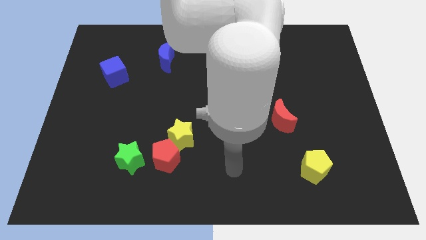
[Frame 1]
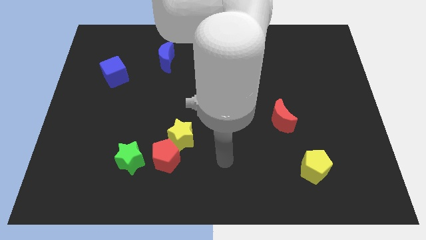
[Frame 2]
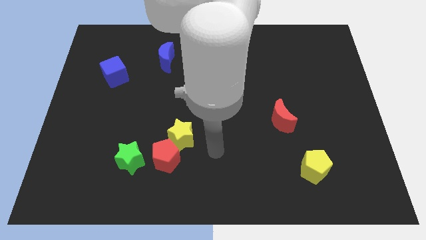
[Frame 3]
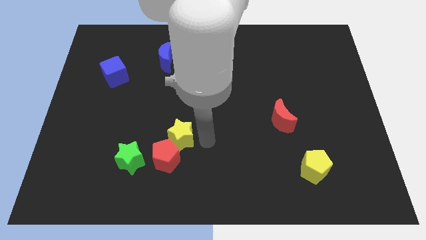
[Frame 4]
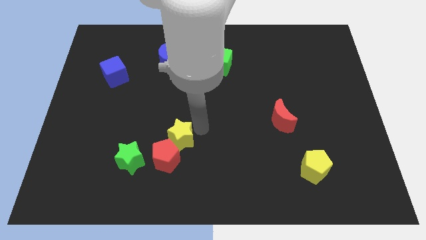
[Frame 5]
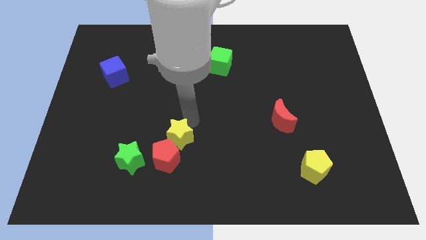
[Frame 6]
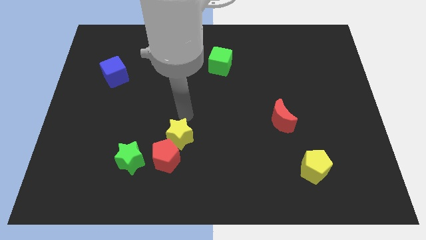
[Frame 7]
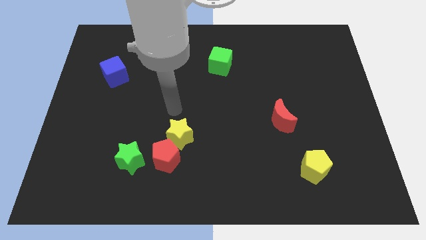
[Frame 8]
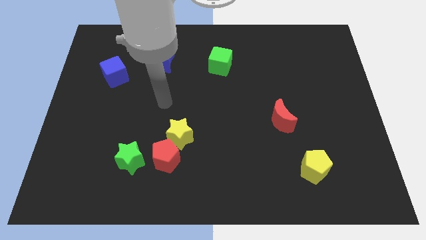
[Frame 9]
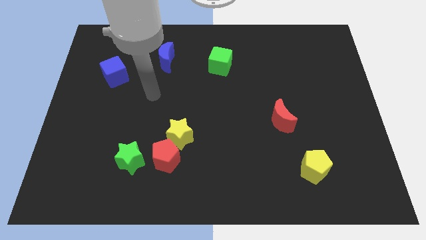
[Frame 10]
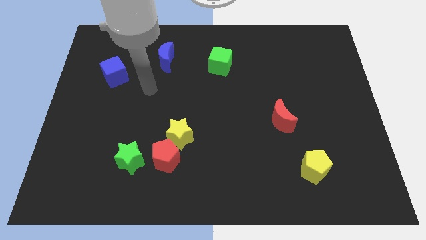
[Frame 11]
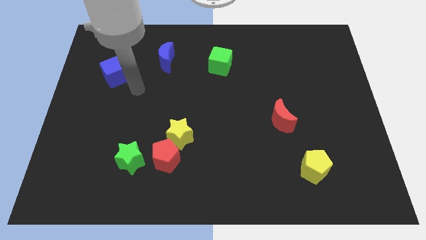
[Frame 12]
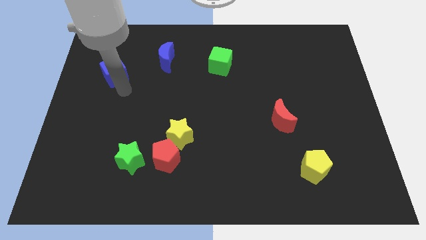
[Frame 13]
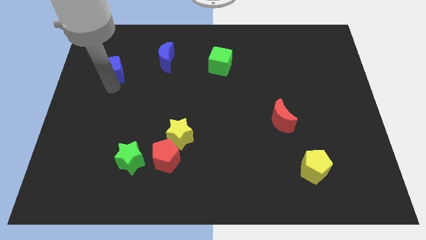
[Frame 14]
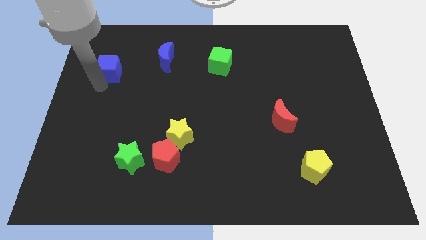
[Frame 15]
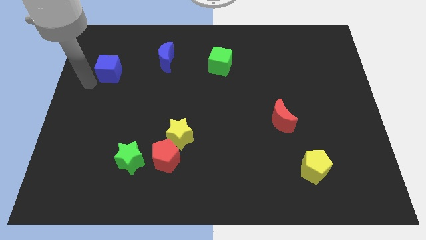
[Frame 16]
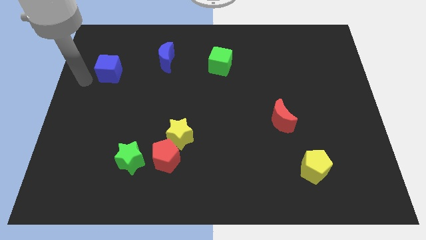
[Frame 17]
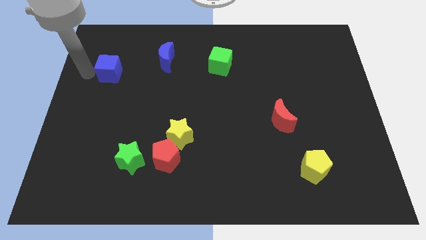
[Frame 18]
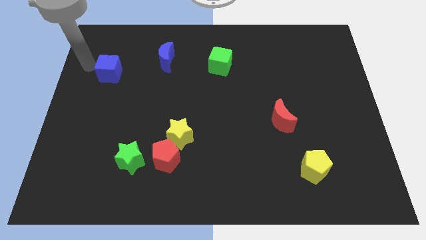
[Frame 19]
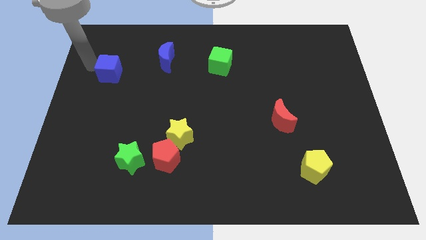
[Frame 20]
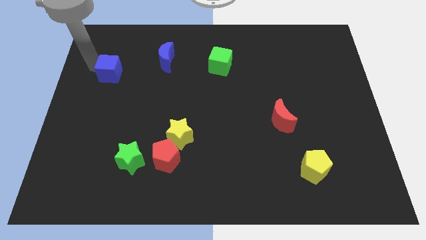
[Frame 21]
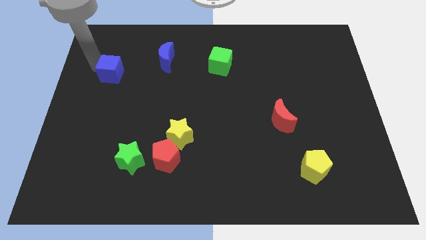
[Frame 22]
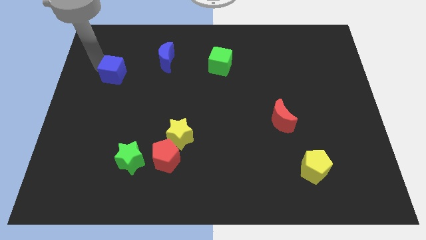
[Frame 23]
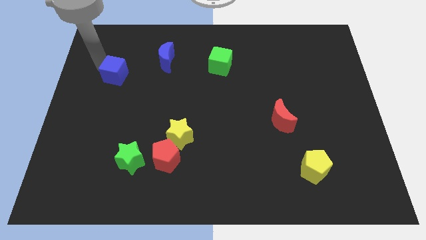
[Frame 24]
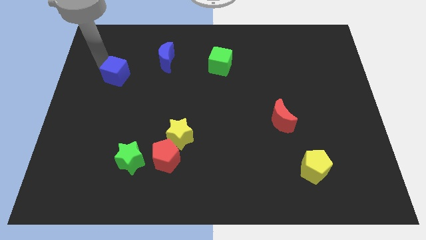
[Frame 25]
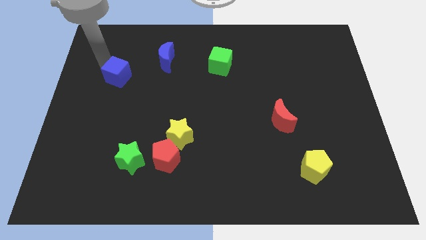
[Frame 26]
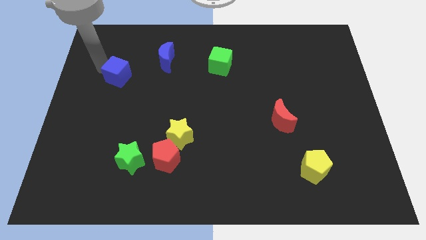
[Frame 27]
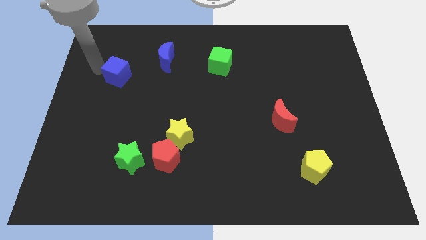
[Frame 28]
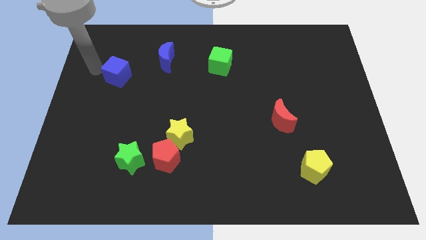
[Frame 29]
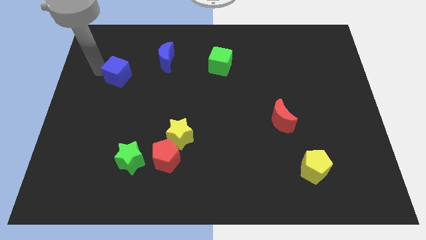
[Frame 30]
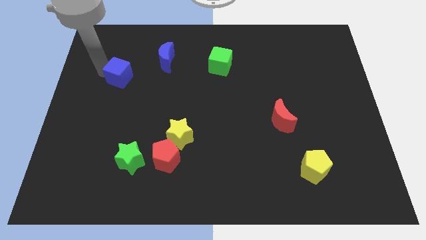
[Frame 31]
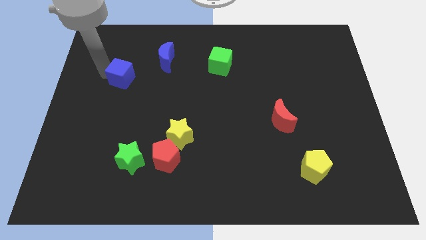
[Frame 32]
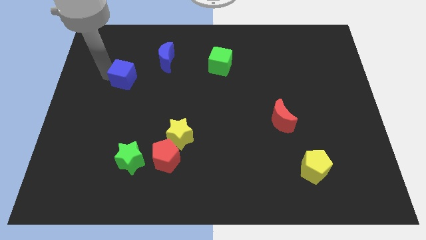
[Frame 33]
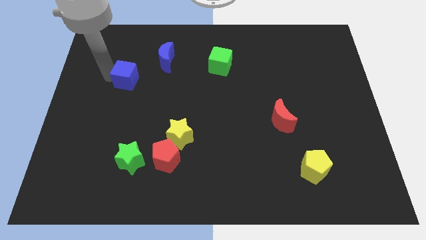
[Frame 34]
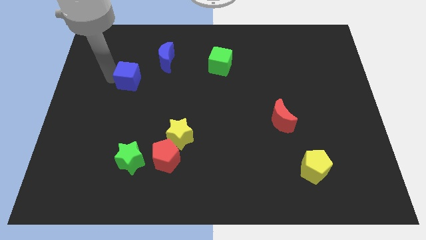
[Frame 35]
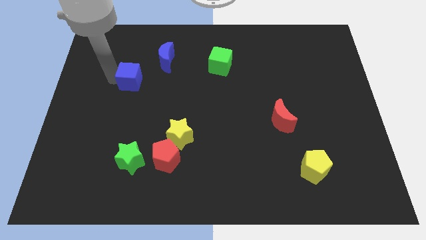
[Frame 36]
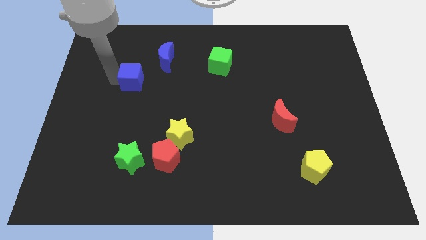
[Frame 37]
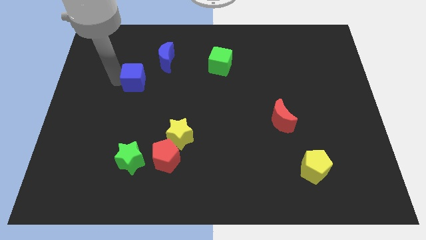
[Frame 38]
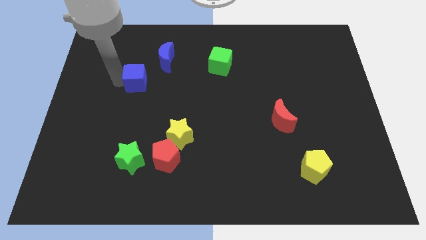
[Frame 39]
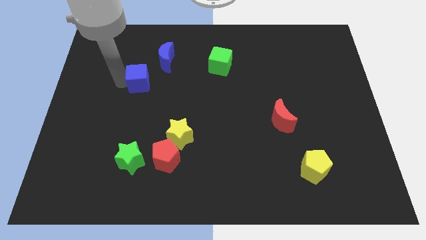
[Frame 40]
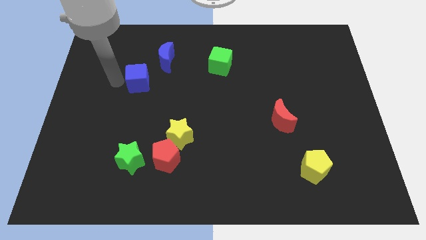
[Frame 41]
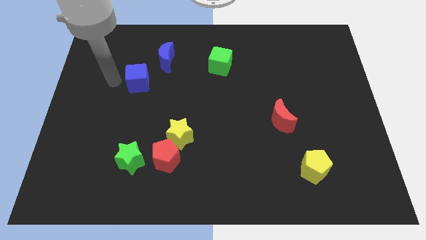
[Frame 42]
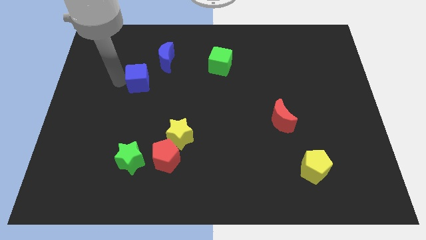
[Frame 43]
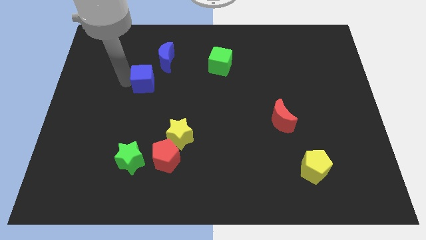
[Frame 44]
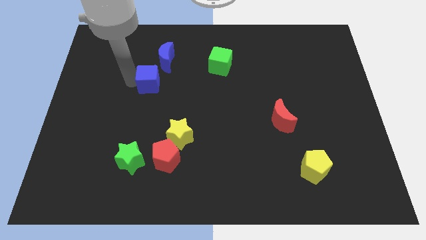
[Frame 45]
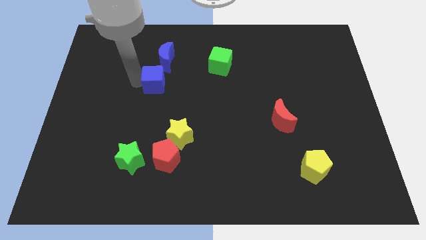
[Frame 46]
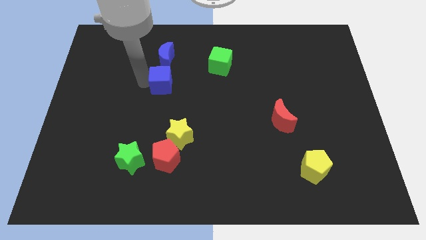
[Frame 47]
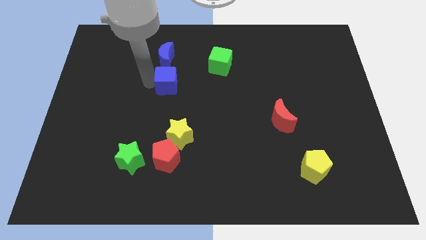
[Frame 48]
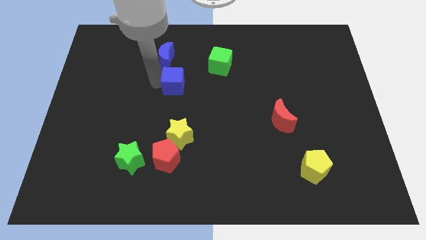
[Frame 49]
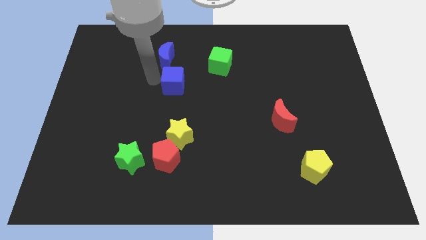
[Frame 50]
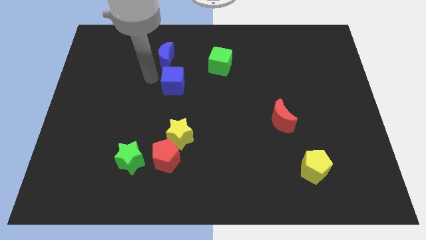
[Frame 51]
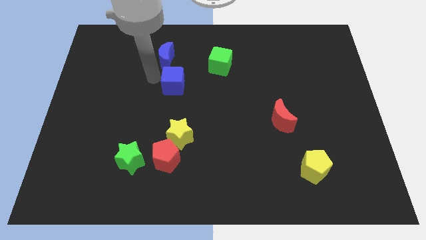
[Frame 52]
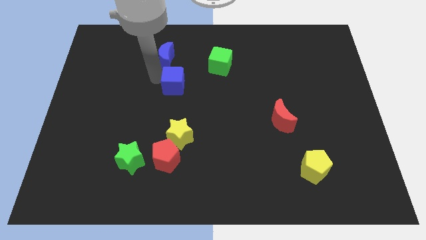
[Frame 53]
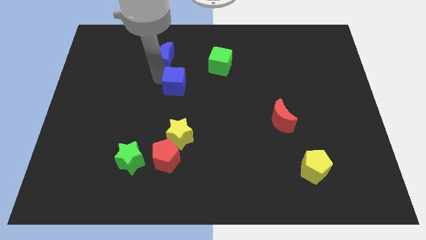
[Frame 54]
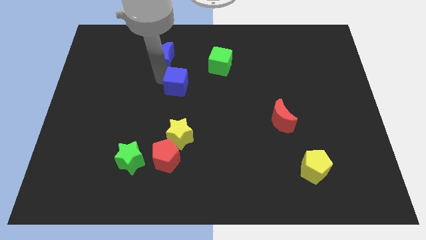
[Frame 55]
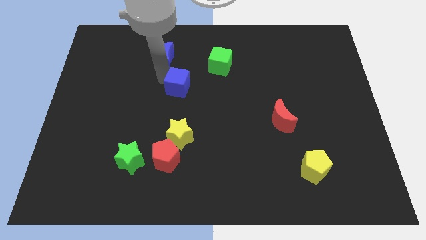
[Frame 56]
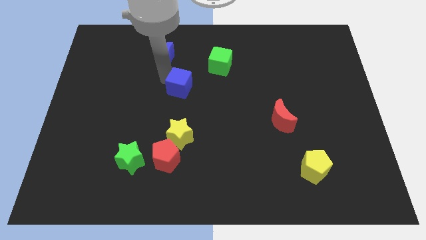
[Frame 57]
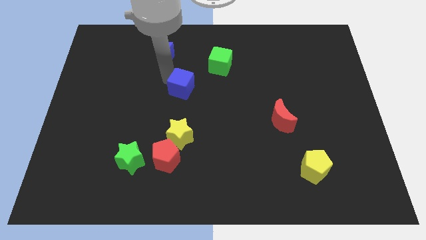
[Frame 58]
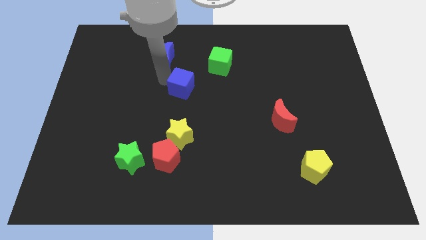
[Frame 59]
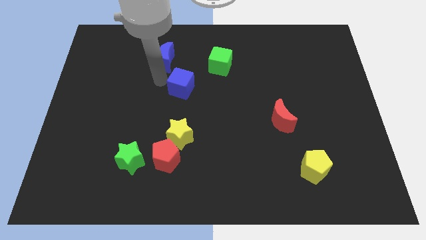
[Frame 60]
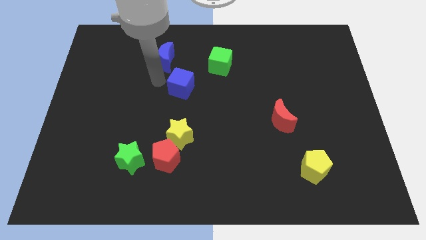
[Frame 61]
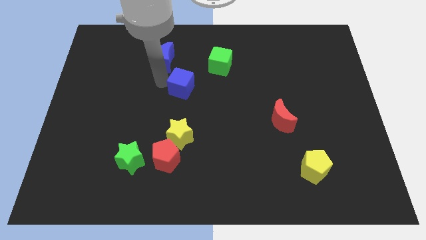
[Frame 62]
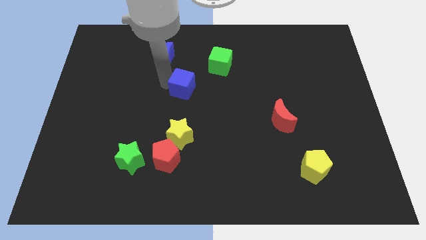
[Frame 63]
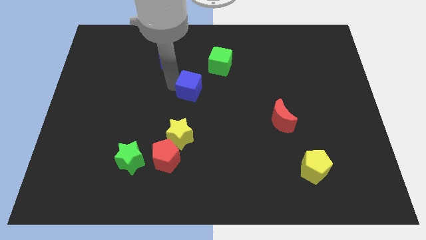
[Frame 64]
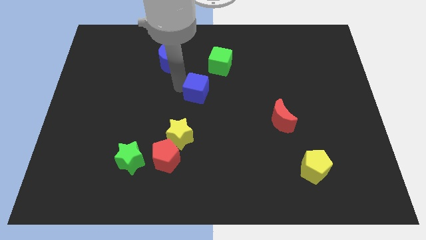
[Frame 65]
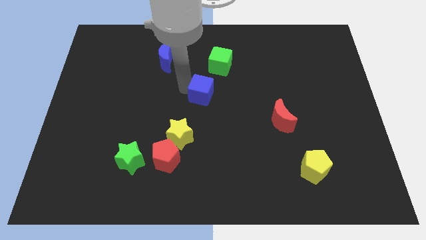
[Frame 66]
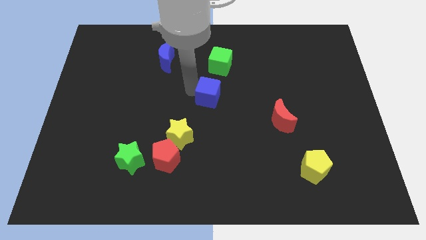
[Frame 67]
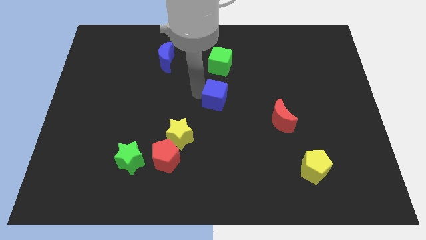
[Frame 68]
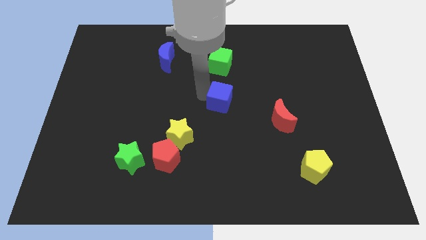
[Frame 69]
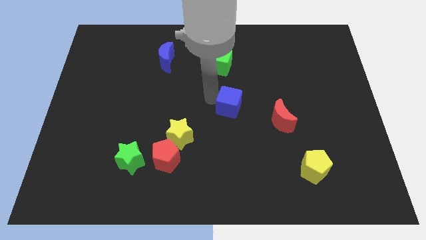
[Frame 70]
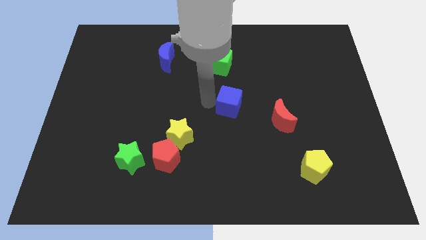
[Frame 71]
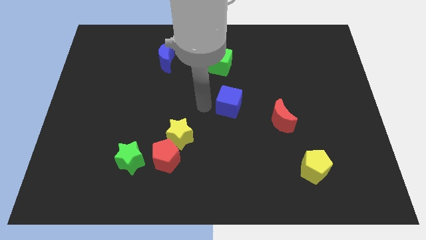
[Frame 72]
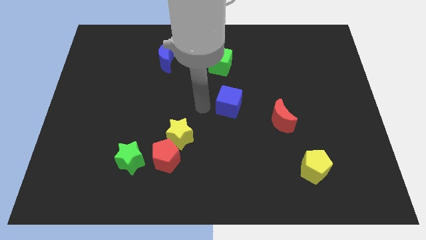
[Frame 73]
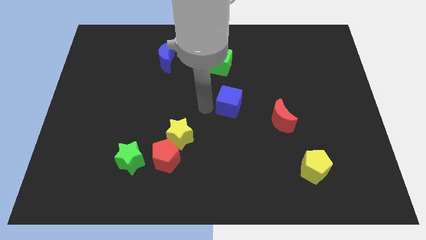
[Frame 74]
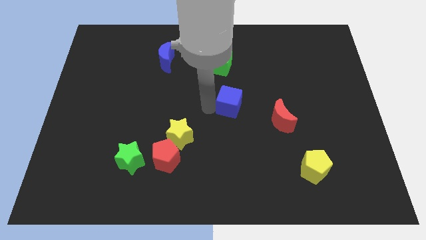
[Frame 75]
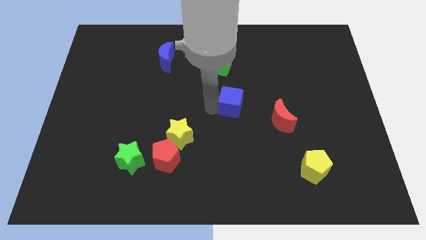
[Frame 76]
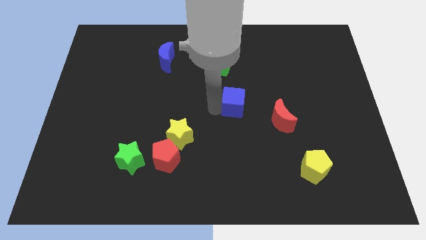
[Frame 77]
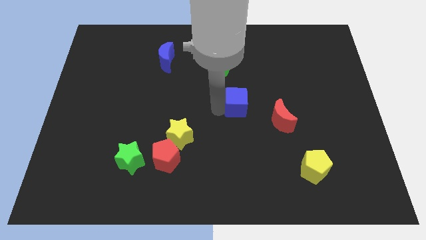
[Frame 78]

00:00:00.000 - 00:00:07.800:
push the blue cube to the top left of the red moon
